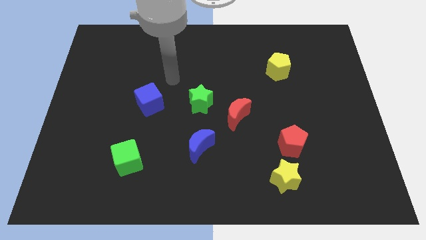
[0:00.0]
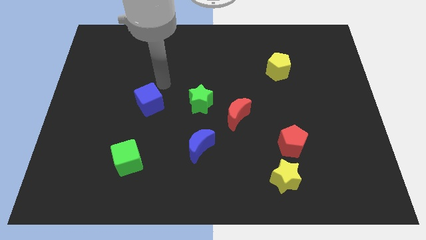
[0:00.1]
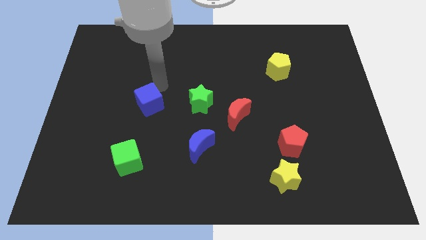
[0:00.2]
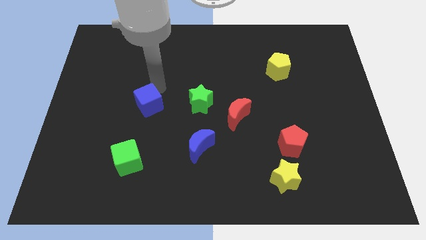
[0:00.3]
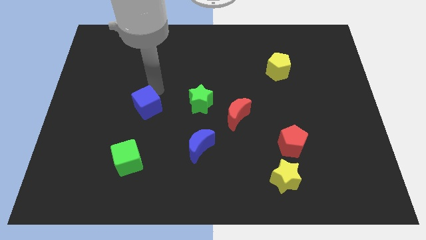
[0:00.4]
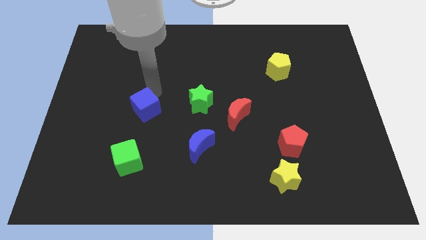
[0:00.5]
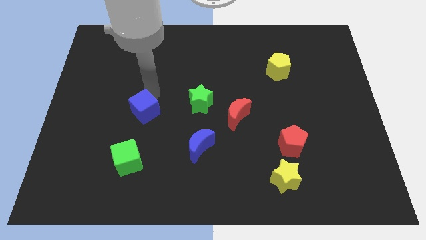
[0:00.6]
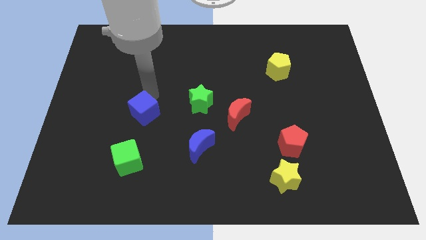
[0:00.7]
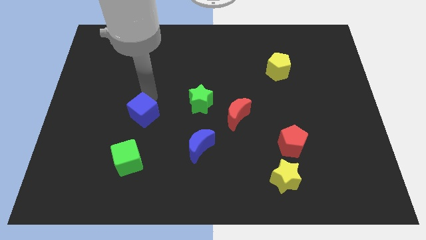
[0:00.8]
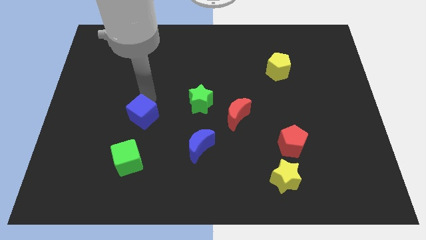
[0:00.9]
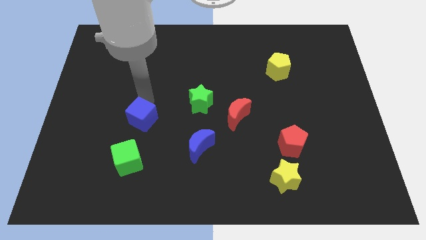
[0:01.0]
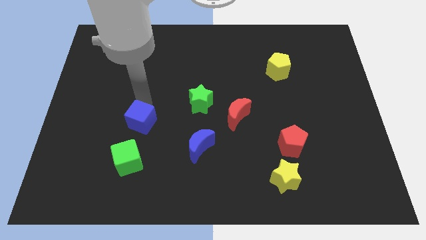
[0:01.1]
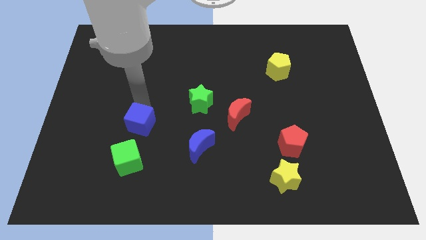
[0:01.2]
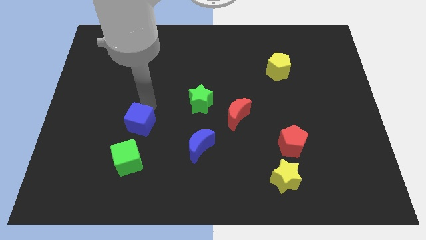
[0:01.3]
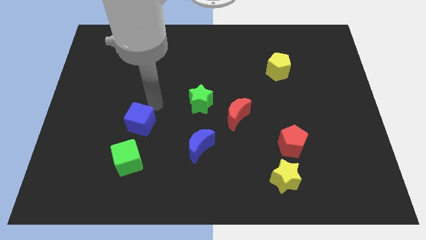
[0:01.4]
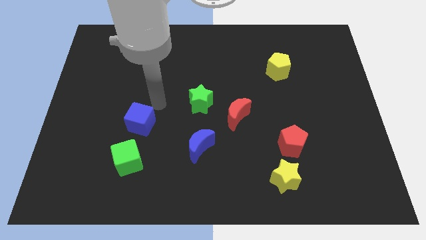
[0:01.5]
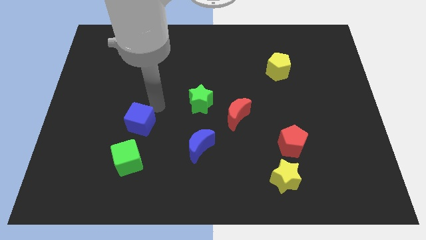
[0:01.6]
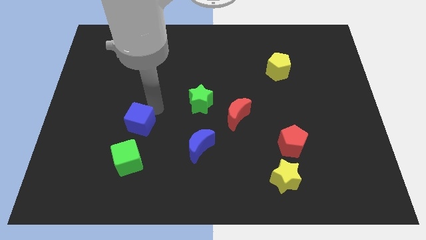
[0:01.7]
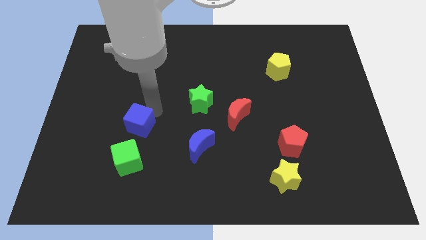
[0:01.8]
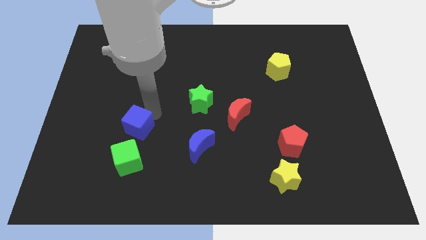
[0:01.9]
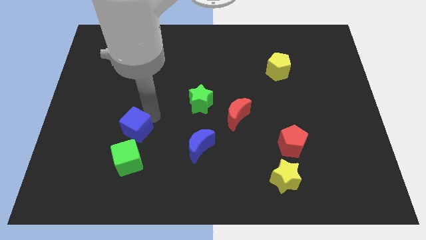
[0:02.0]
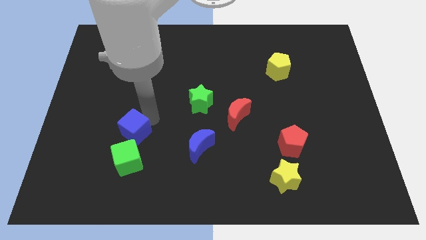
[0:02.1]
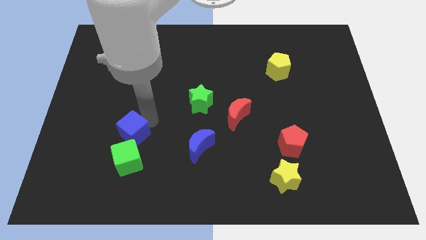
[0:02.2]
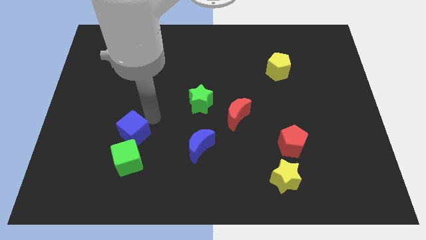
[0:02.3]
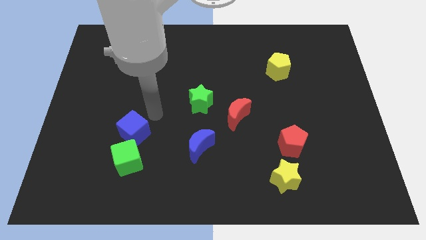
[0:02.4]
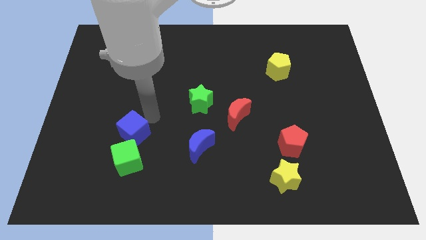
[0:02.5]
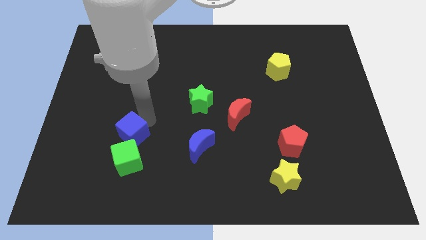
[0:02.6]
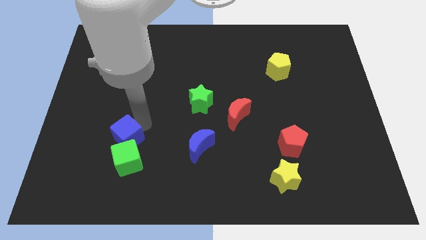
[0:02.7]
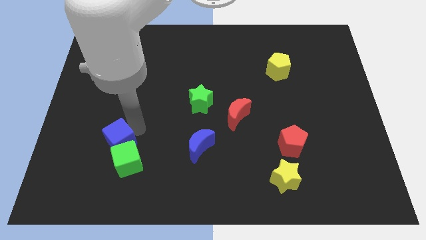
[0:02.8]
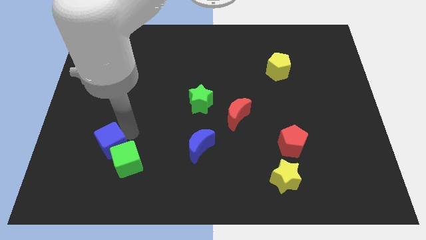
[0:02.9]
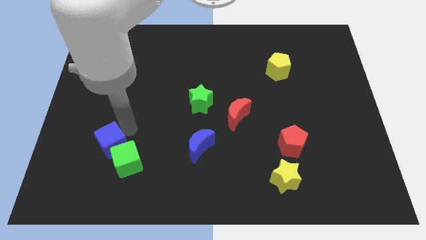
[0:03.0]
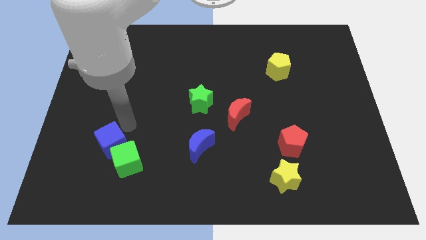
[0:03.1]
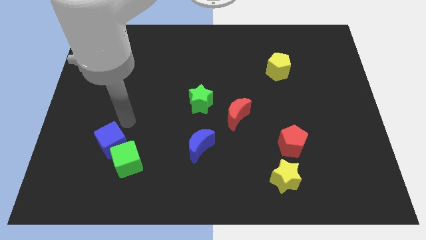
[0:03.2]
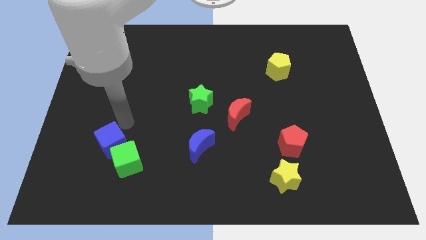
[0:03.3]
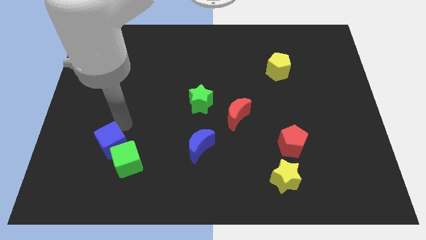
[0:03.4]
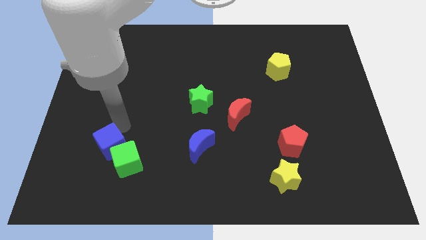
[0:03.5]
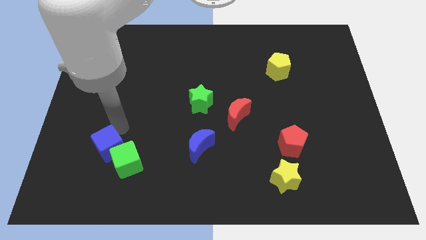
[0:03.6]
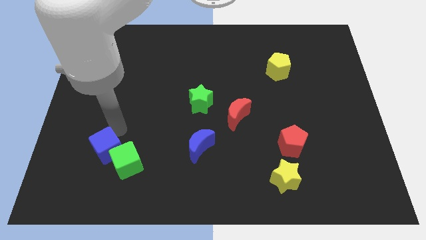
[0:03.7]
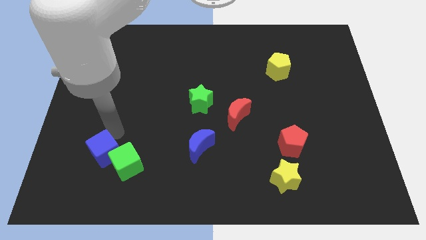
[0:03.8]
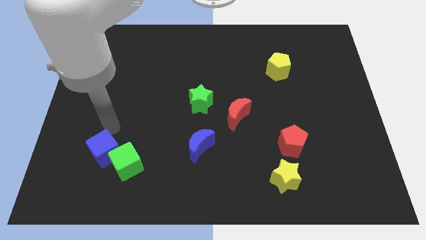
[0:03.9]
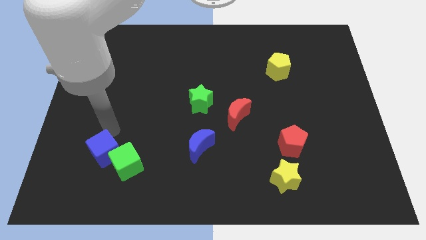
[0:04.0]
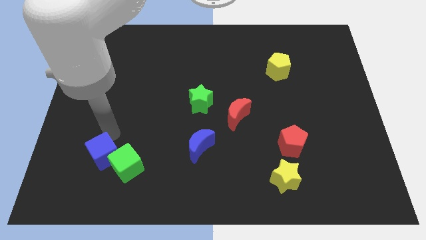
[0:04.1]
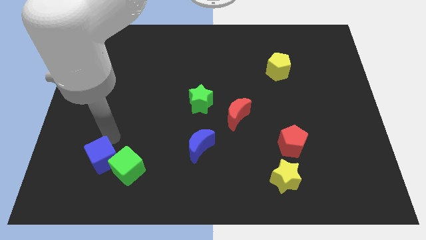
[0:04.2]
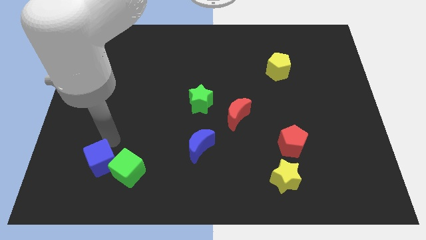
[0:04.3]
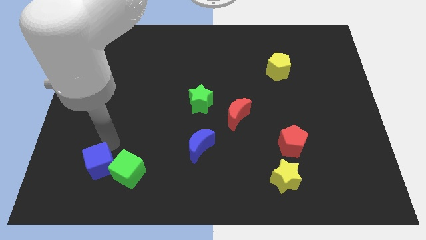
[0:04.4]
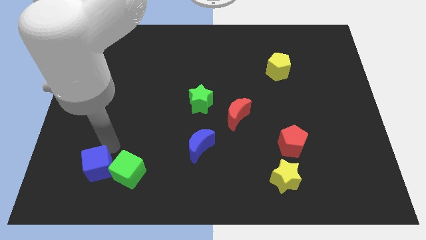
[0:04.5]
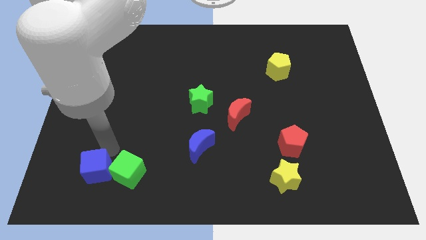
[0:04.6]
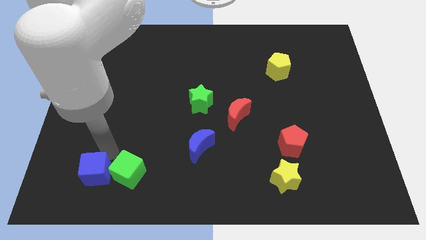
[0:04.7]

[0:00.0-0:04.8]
move the blue cube diagonally down and to the left of the green cube

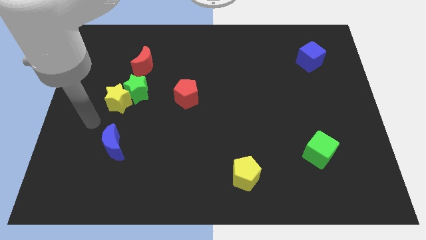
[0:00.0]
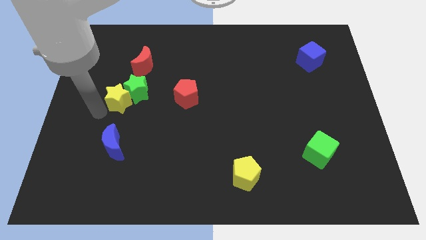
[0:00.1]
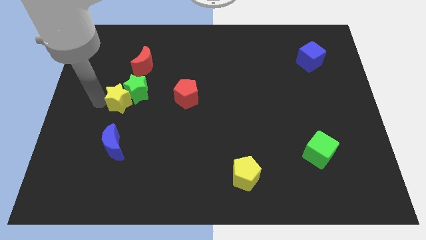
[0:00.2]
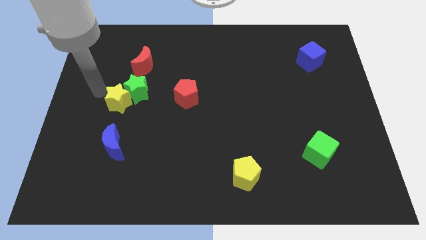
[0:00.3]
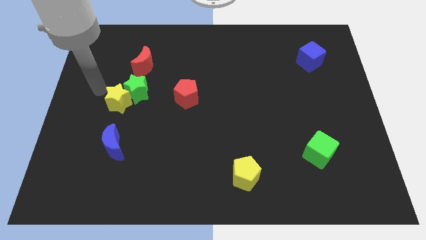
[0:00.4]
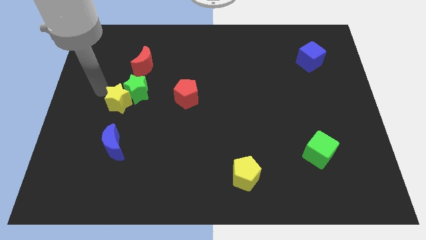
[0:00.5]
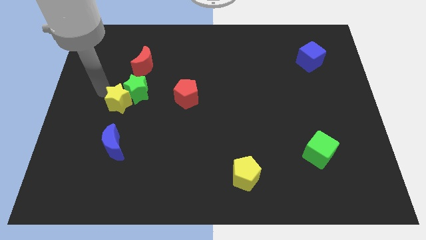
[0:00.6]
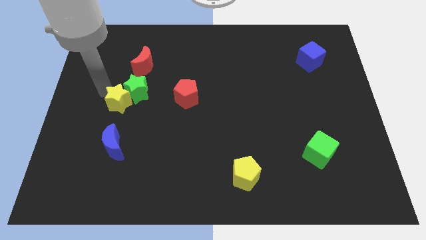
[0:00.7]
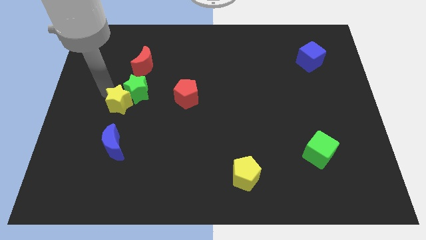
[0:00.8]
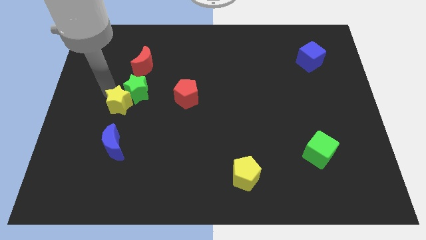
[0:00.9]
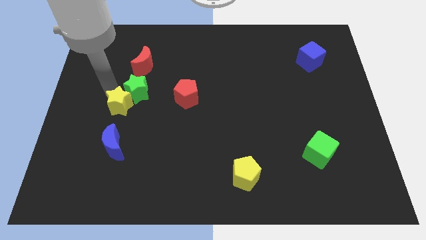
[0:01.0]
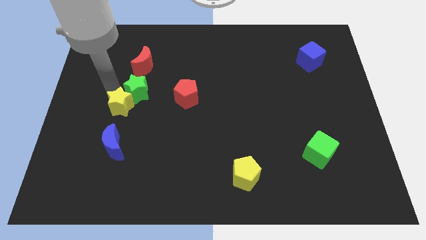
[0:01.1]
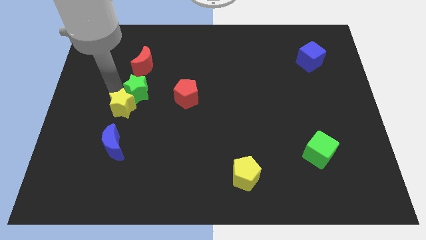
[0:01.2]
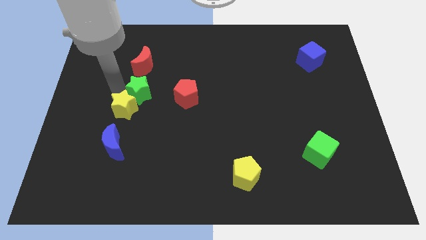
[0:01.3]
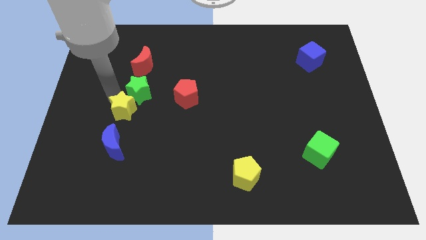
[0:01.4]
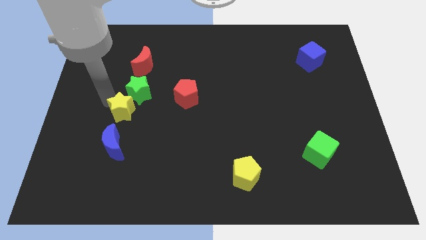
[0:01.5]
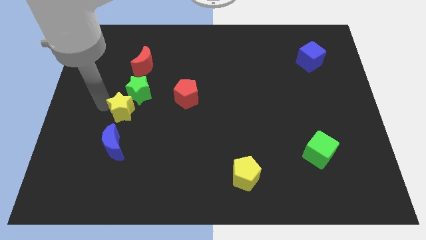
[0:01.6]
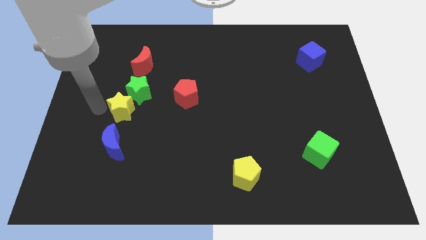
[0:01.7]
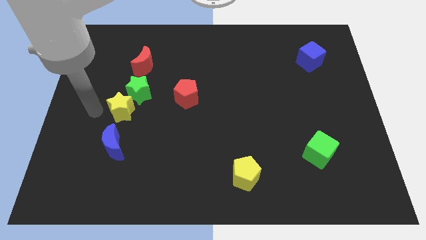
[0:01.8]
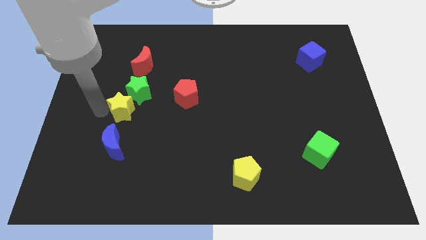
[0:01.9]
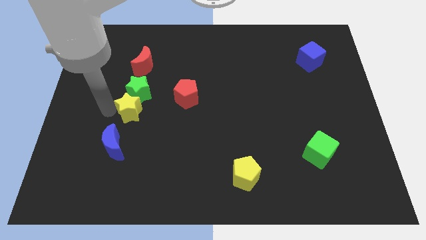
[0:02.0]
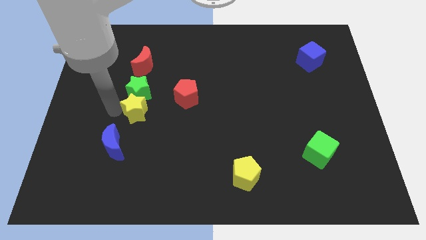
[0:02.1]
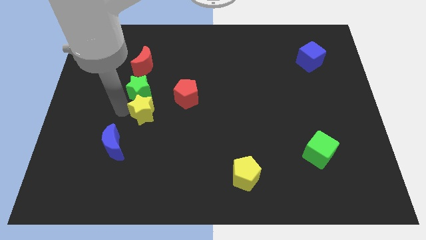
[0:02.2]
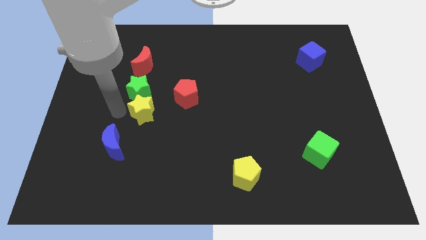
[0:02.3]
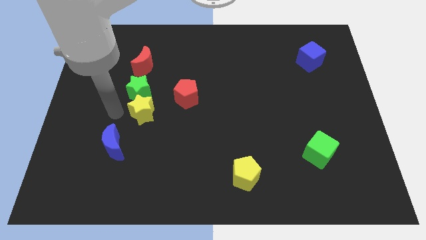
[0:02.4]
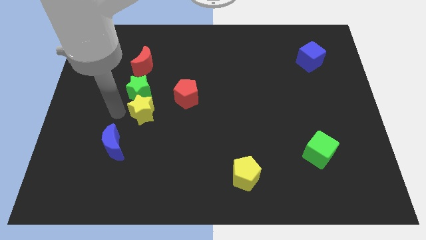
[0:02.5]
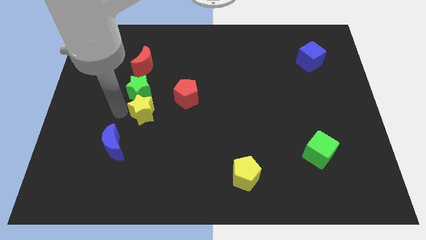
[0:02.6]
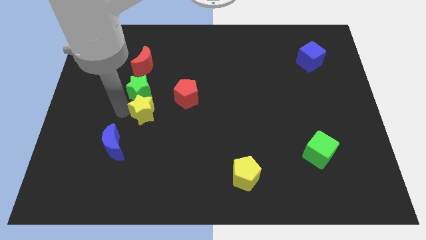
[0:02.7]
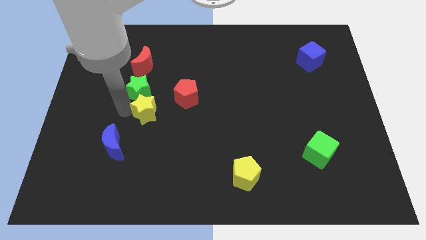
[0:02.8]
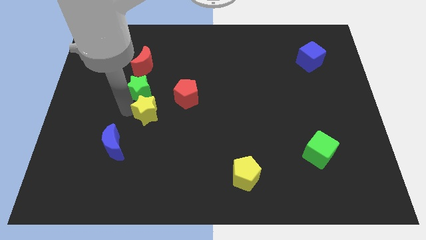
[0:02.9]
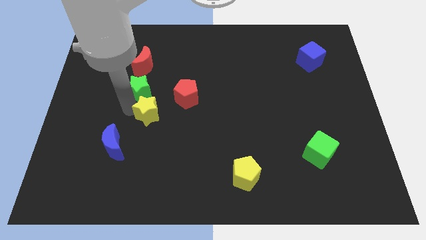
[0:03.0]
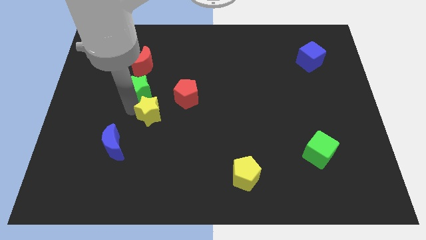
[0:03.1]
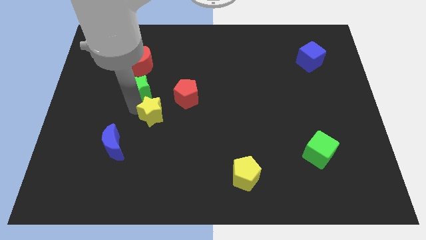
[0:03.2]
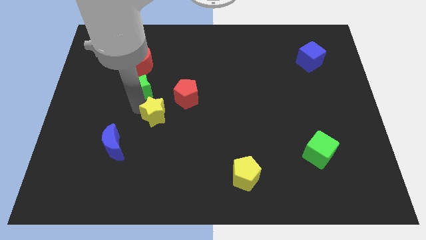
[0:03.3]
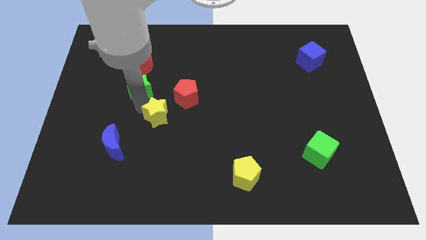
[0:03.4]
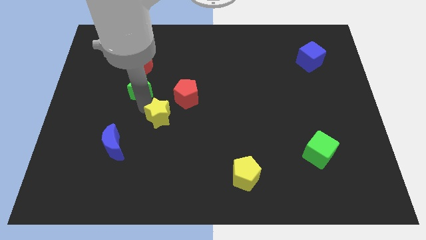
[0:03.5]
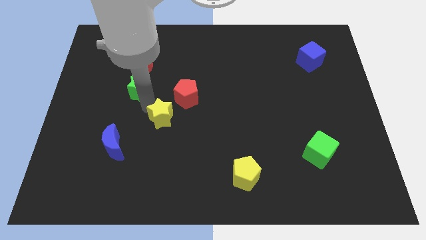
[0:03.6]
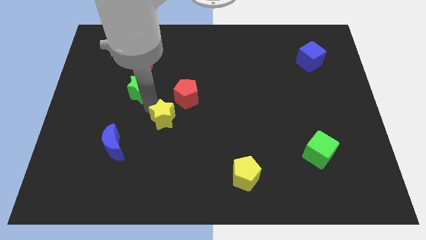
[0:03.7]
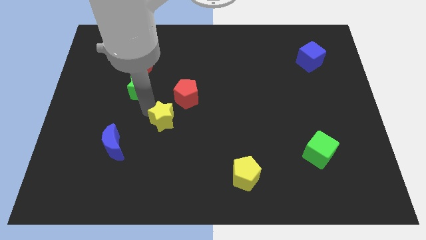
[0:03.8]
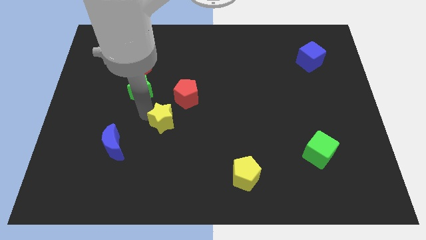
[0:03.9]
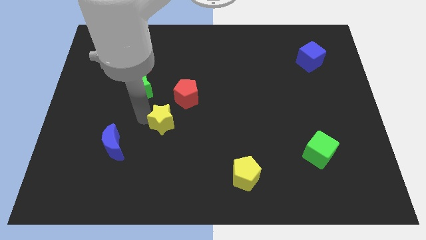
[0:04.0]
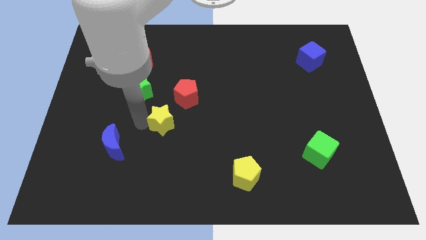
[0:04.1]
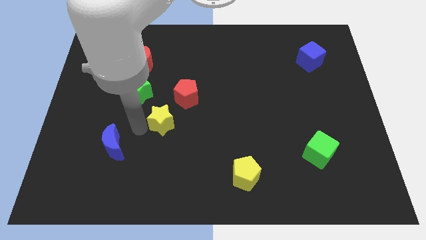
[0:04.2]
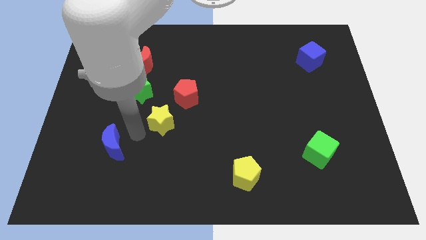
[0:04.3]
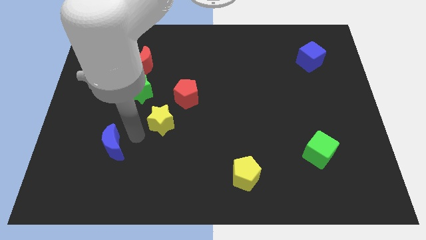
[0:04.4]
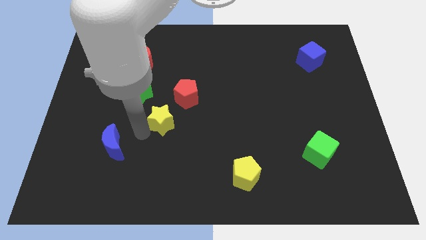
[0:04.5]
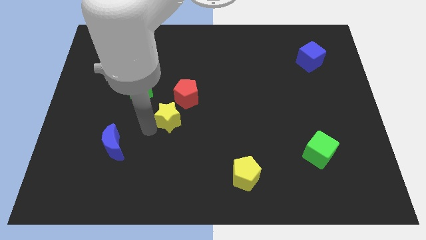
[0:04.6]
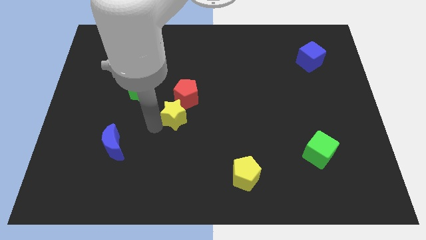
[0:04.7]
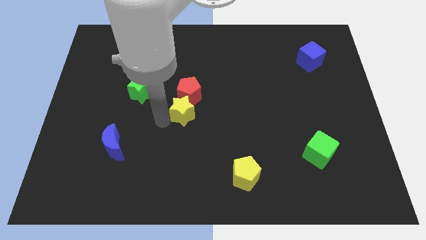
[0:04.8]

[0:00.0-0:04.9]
slide the yellow star to the bottom right side of the red pentagon
